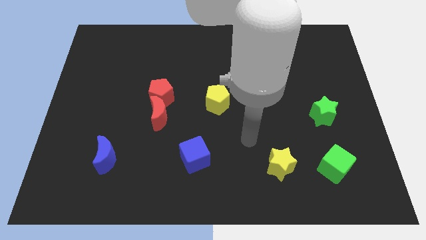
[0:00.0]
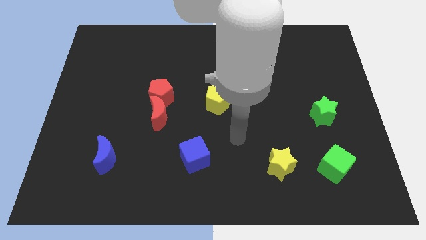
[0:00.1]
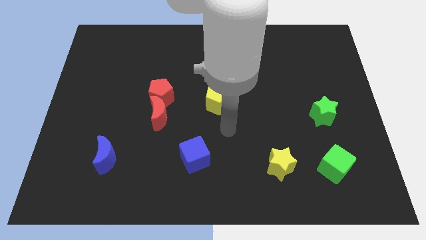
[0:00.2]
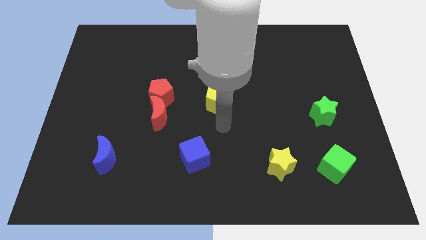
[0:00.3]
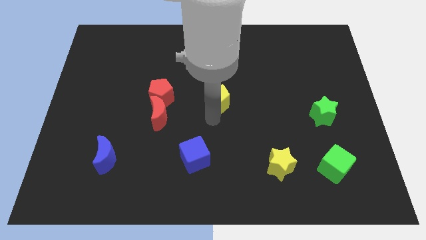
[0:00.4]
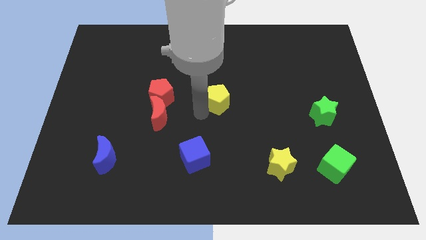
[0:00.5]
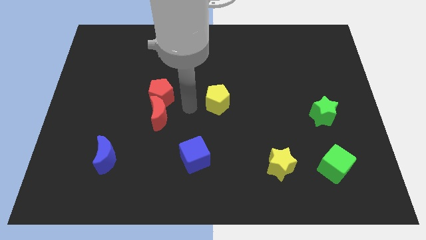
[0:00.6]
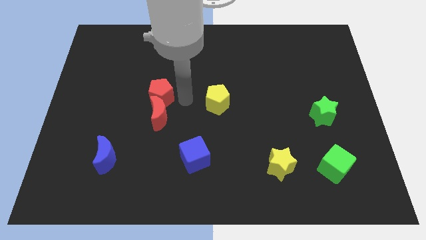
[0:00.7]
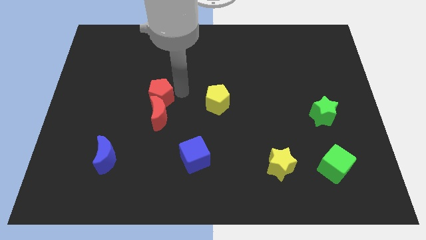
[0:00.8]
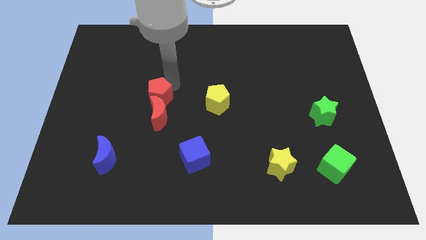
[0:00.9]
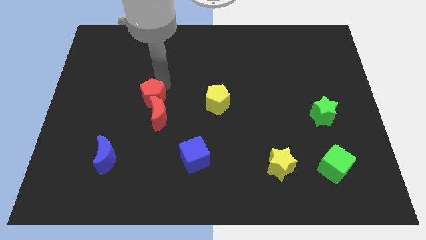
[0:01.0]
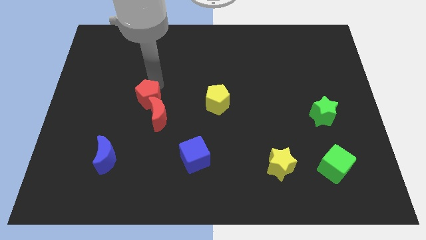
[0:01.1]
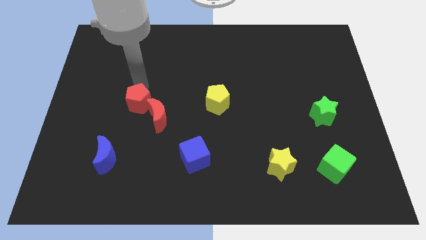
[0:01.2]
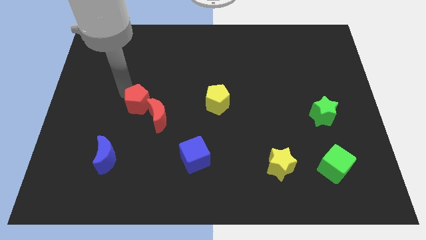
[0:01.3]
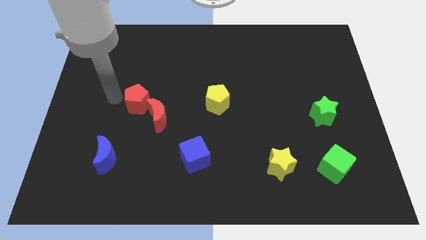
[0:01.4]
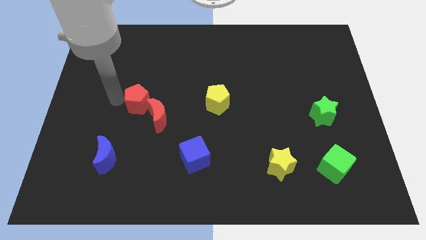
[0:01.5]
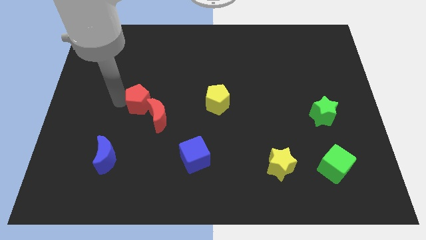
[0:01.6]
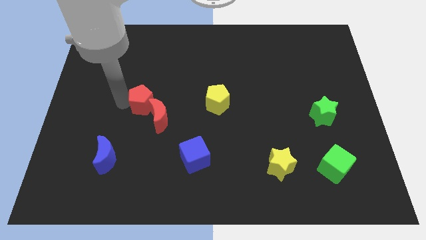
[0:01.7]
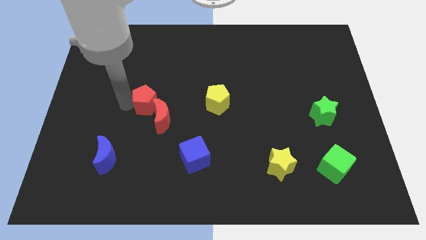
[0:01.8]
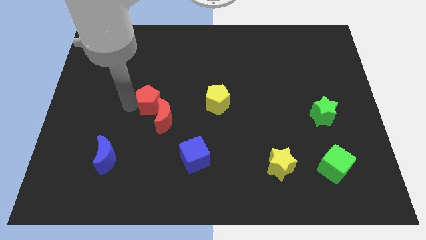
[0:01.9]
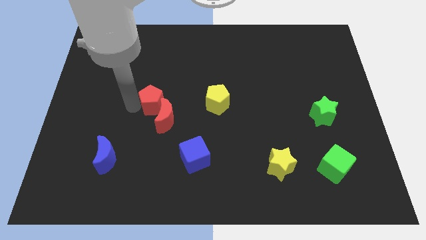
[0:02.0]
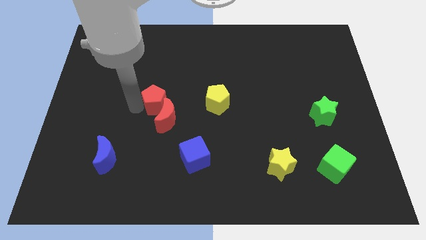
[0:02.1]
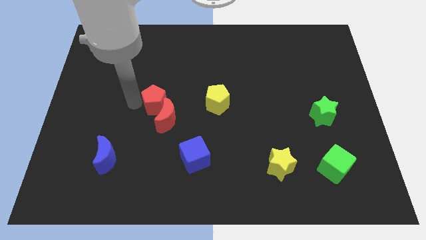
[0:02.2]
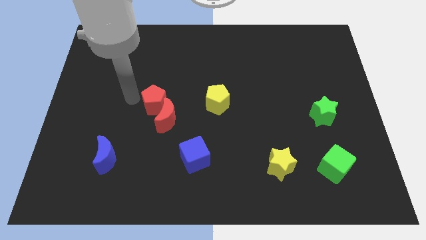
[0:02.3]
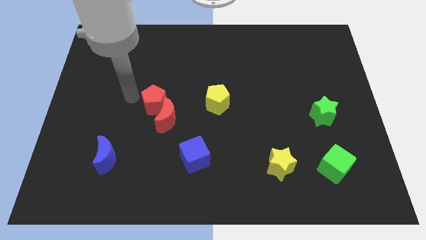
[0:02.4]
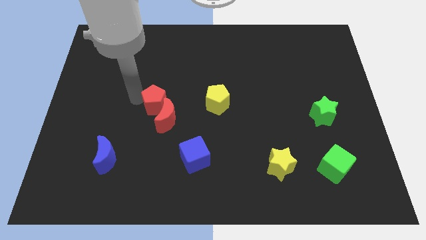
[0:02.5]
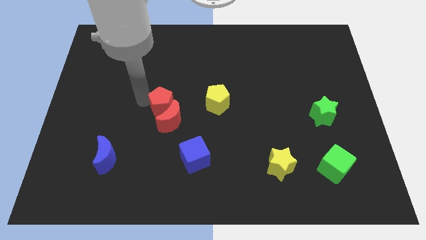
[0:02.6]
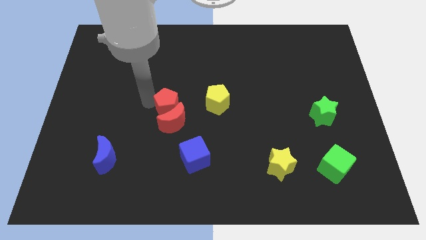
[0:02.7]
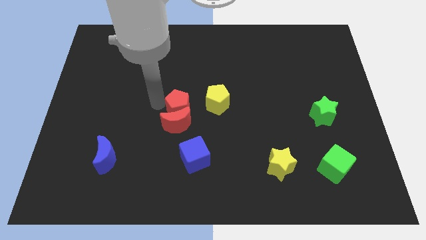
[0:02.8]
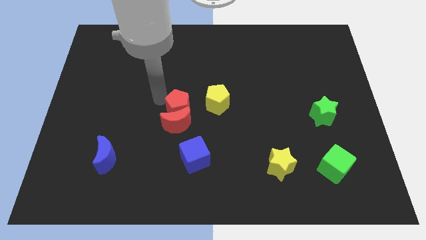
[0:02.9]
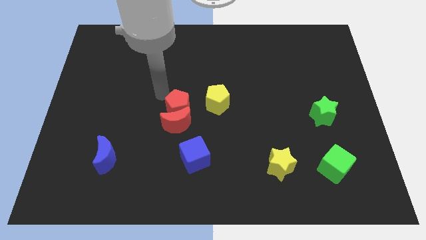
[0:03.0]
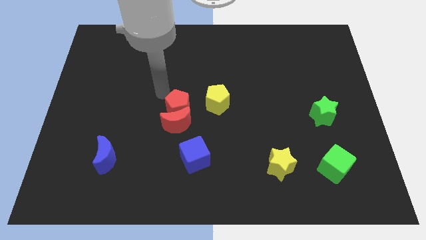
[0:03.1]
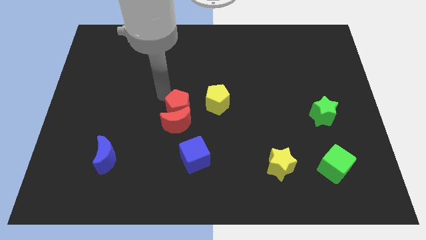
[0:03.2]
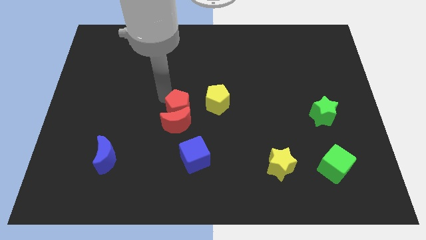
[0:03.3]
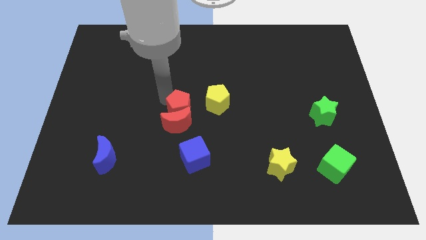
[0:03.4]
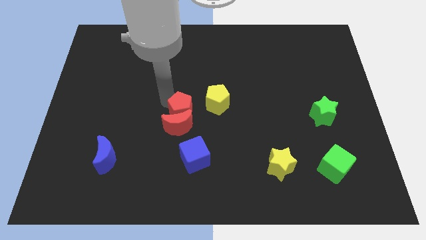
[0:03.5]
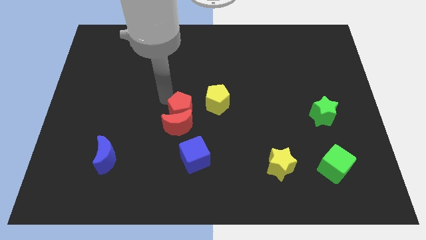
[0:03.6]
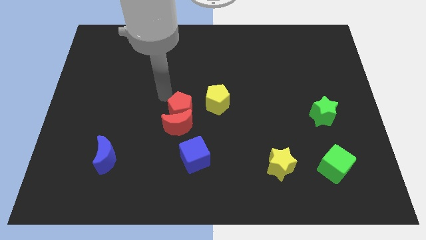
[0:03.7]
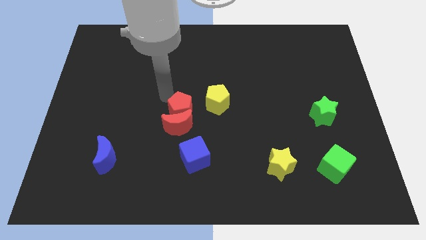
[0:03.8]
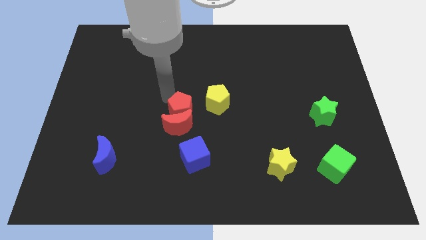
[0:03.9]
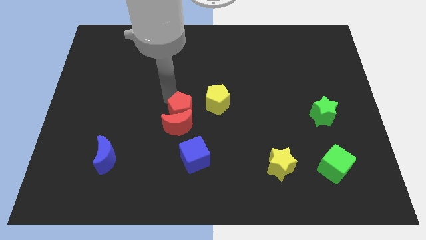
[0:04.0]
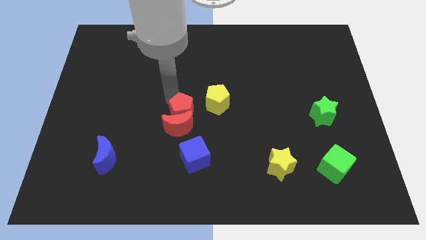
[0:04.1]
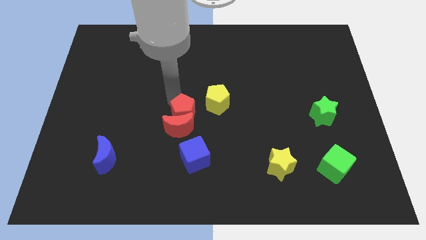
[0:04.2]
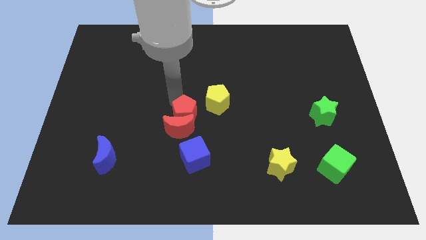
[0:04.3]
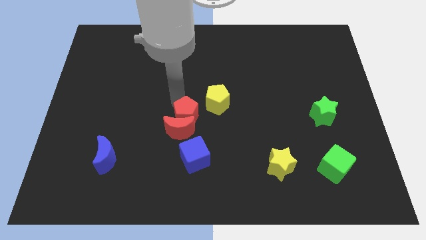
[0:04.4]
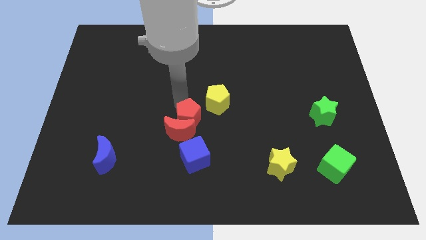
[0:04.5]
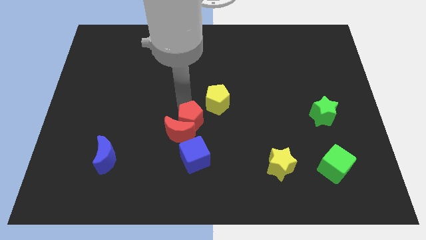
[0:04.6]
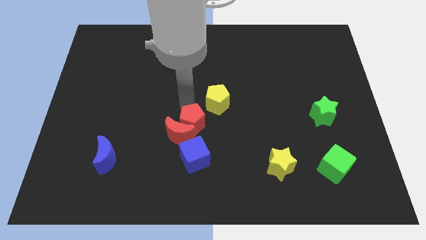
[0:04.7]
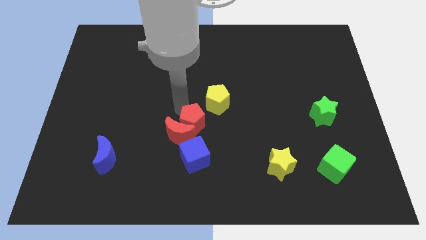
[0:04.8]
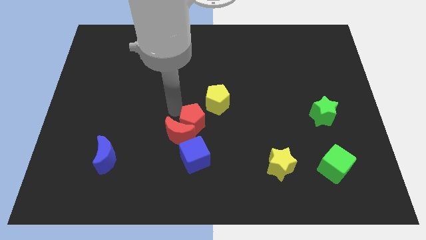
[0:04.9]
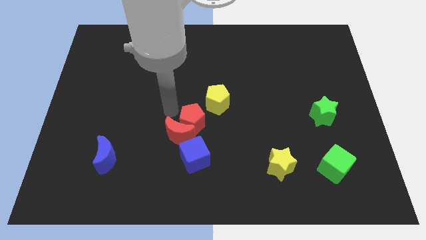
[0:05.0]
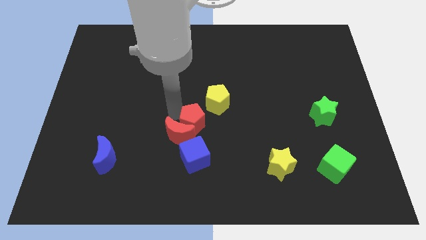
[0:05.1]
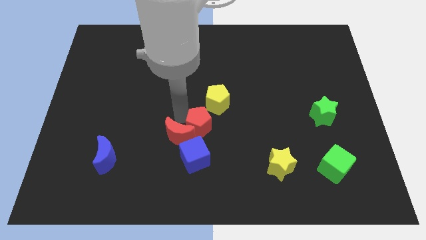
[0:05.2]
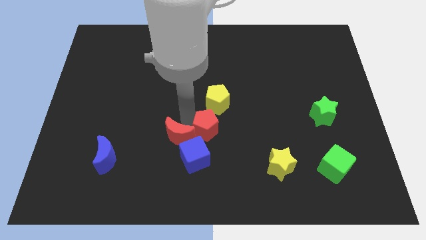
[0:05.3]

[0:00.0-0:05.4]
slide the red pentagon to the top right of the blue cube

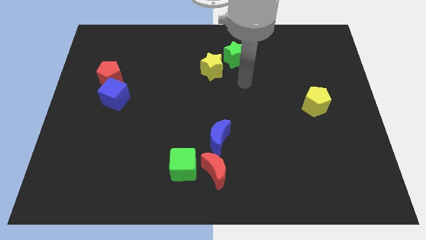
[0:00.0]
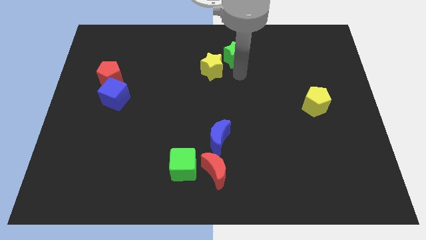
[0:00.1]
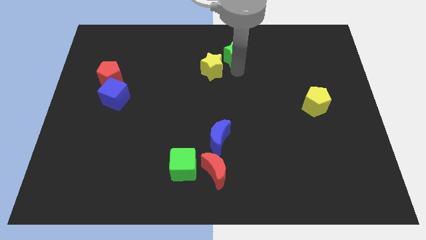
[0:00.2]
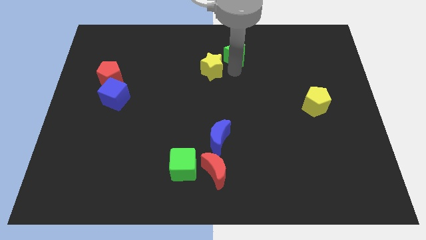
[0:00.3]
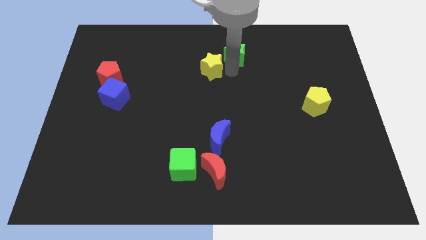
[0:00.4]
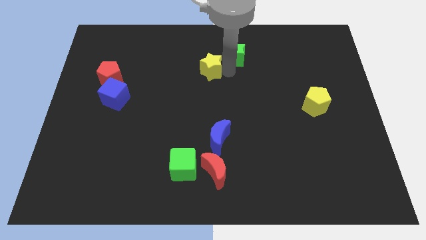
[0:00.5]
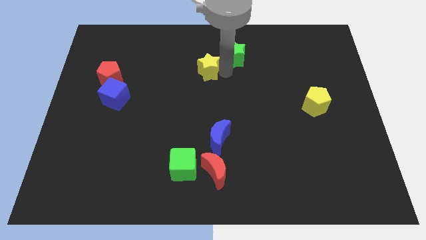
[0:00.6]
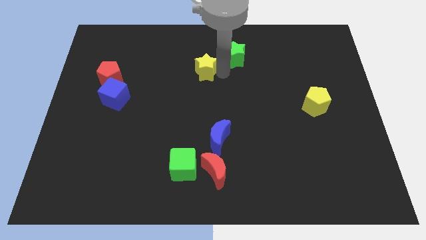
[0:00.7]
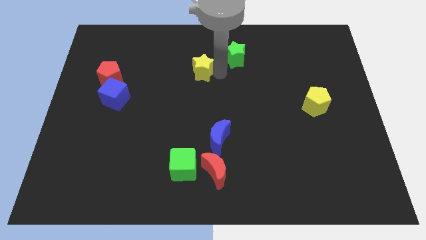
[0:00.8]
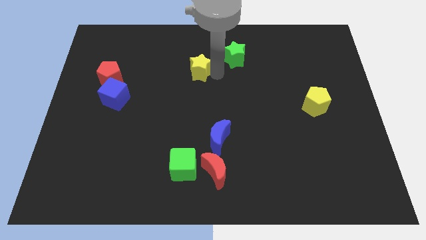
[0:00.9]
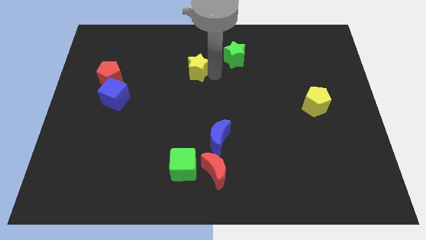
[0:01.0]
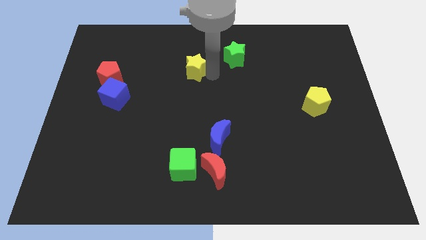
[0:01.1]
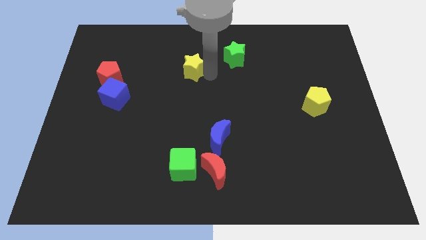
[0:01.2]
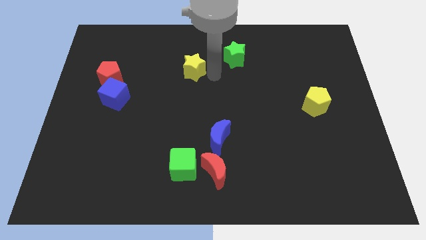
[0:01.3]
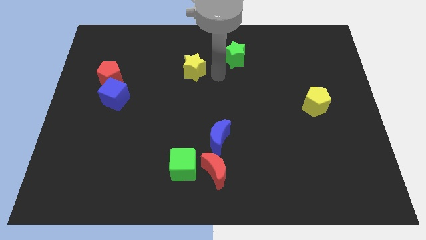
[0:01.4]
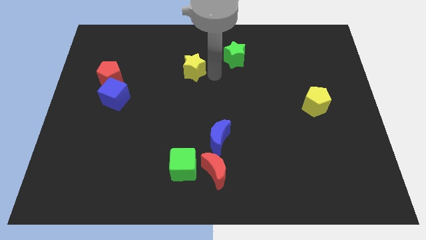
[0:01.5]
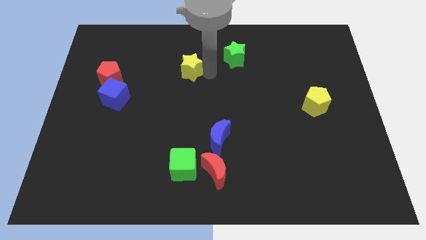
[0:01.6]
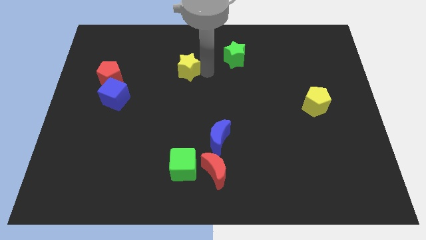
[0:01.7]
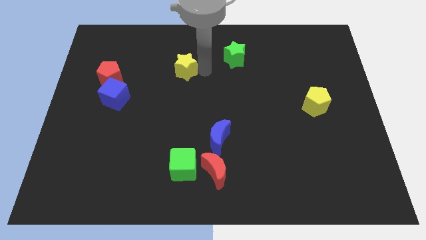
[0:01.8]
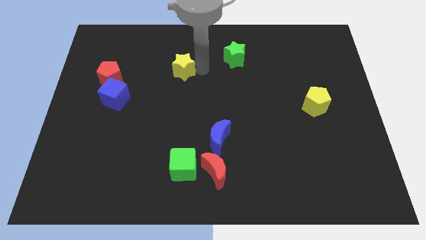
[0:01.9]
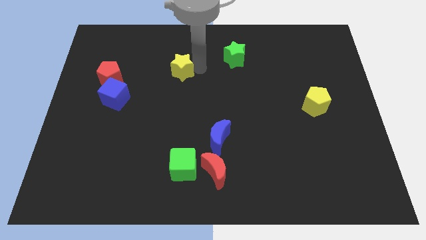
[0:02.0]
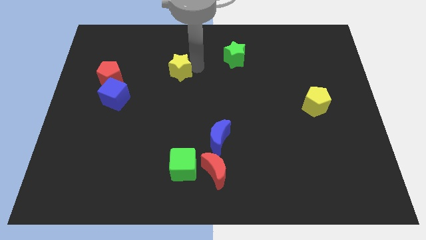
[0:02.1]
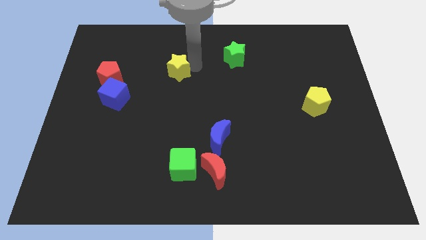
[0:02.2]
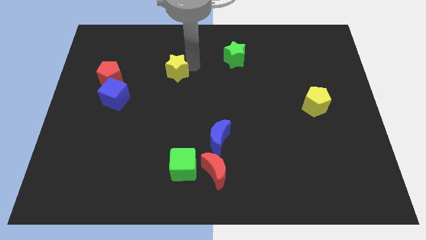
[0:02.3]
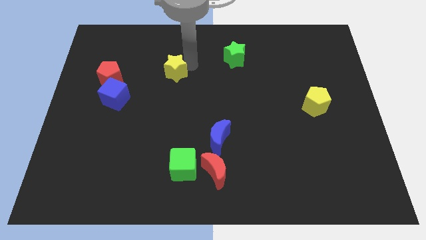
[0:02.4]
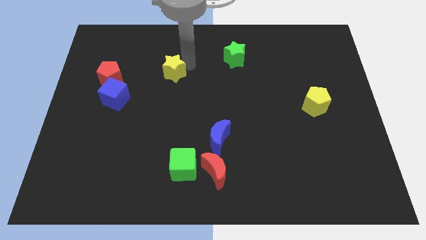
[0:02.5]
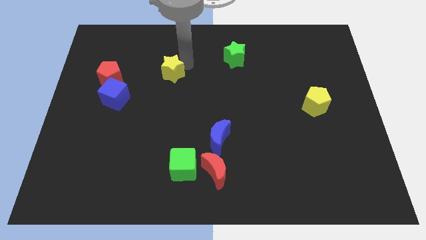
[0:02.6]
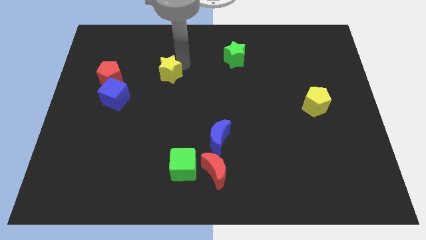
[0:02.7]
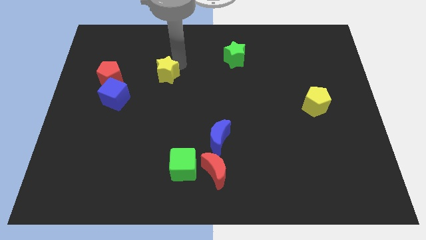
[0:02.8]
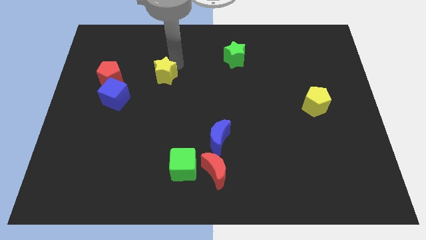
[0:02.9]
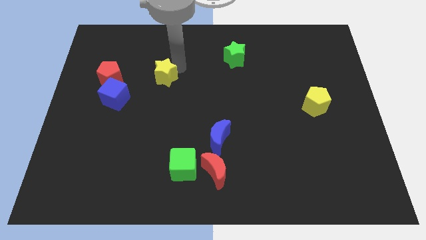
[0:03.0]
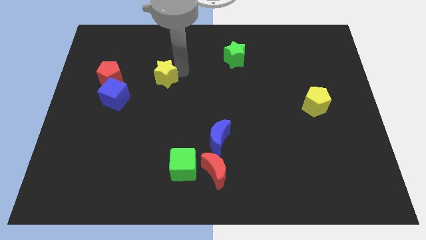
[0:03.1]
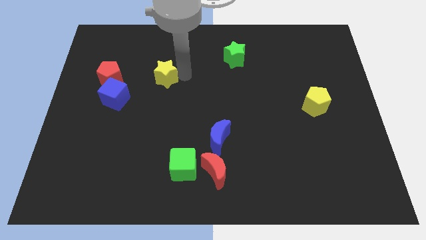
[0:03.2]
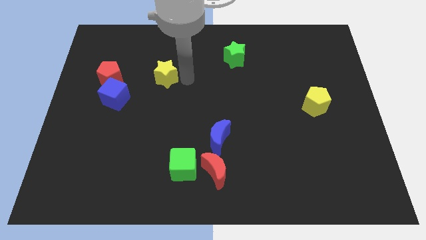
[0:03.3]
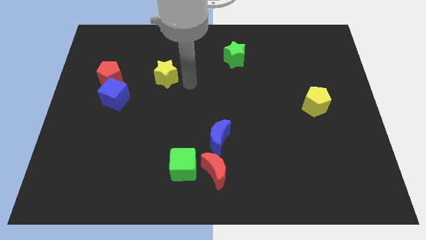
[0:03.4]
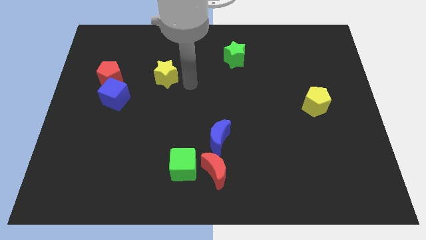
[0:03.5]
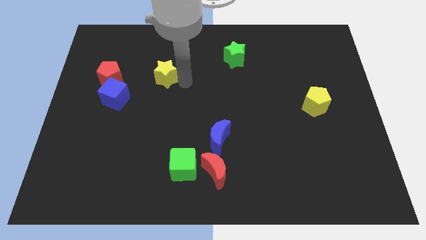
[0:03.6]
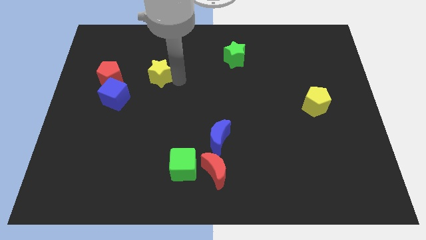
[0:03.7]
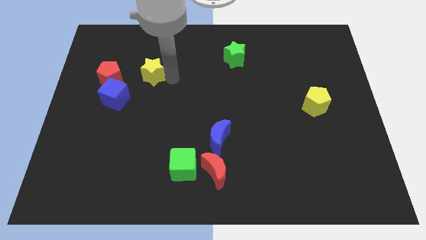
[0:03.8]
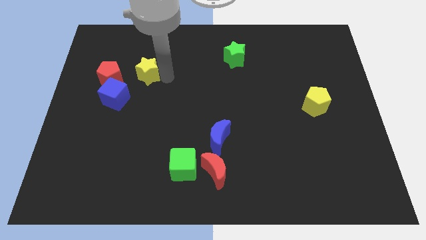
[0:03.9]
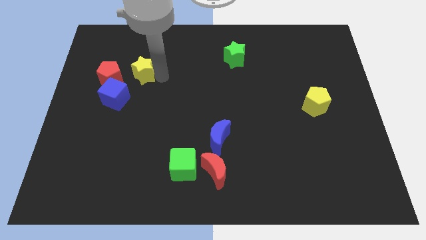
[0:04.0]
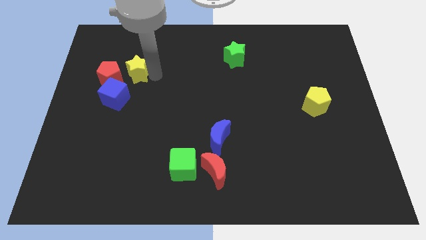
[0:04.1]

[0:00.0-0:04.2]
move the yellow star to the top of the blue cube
